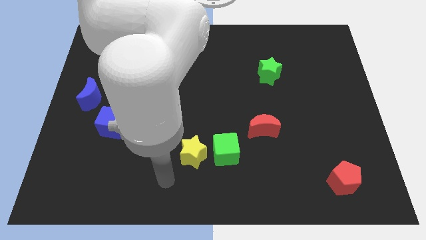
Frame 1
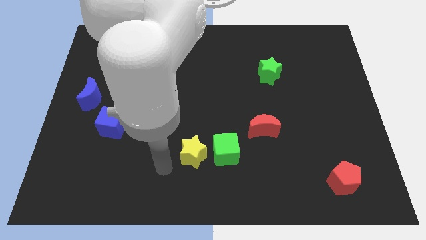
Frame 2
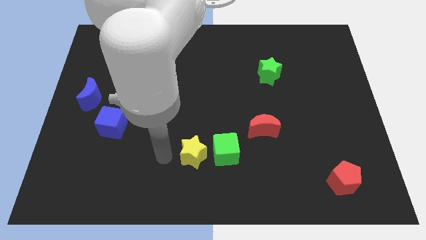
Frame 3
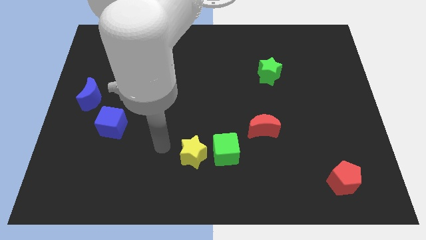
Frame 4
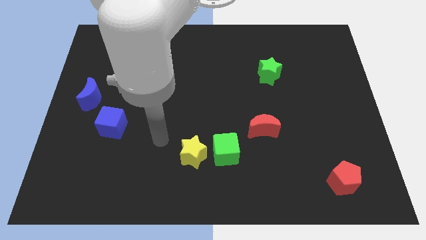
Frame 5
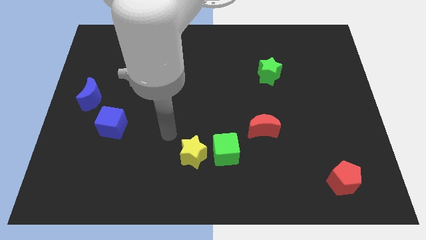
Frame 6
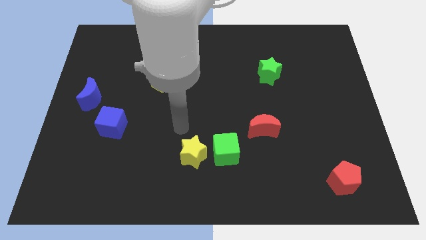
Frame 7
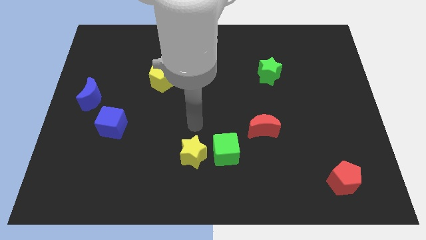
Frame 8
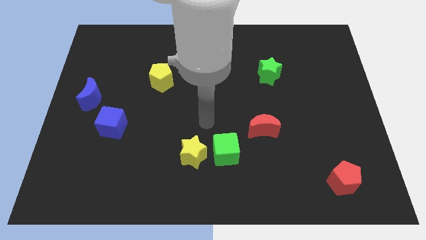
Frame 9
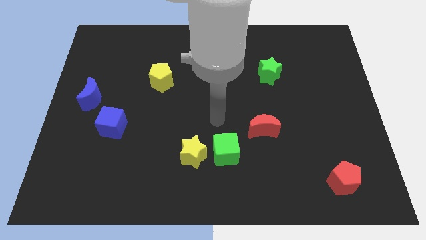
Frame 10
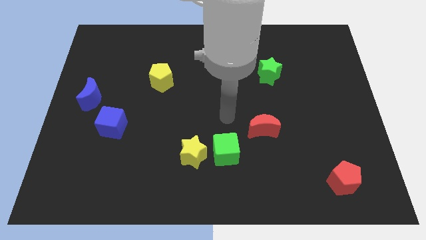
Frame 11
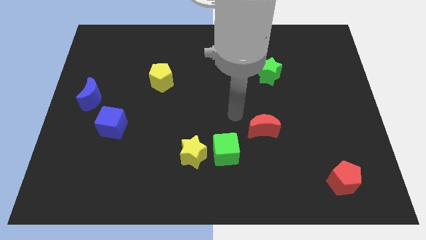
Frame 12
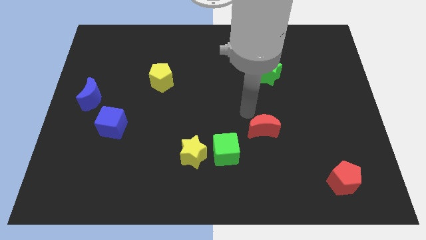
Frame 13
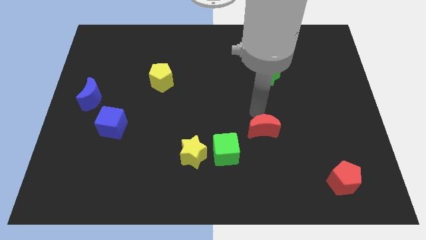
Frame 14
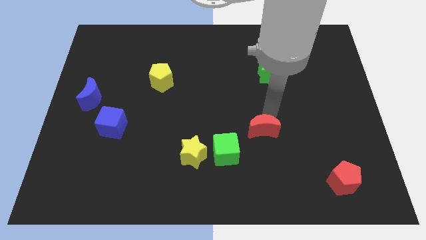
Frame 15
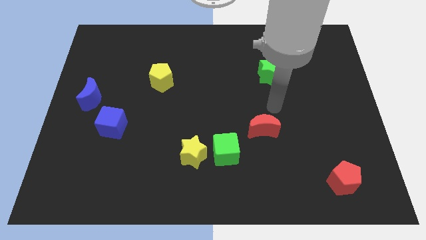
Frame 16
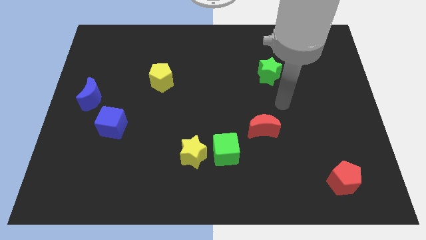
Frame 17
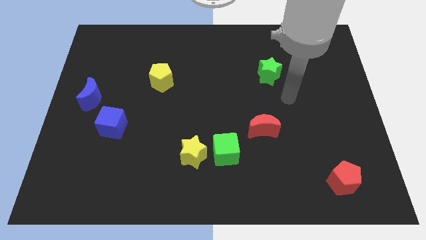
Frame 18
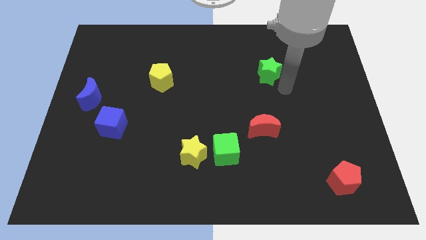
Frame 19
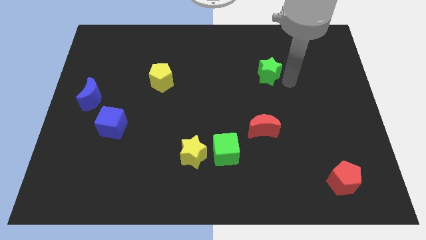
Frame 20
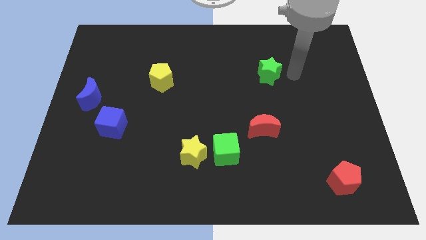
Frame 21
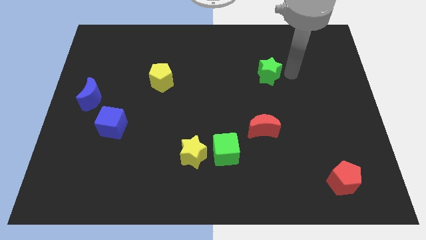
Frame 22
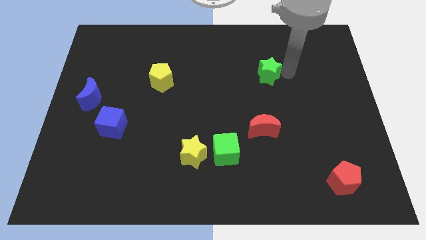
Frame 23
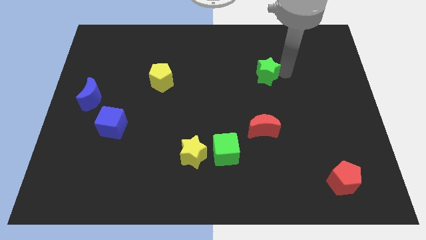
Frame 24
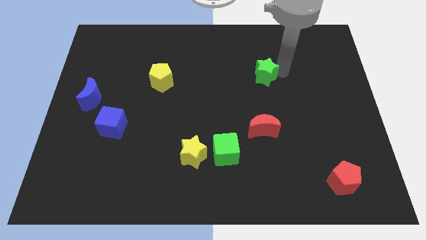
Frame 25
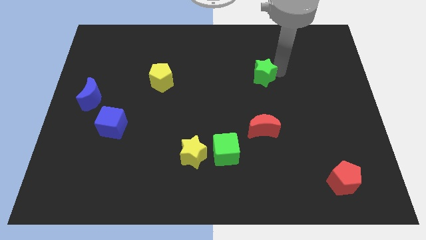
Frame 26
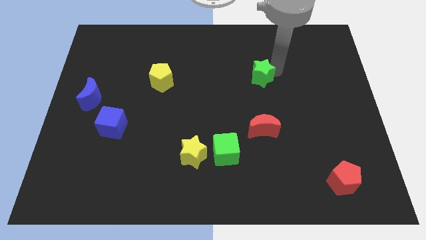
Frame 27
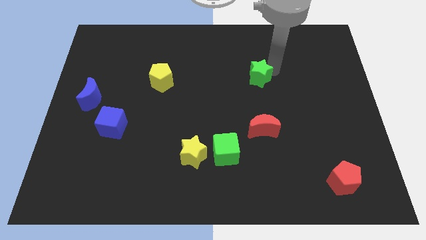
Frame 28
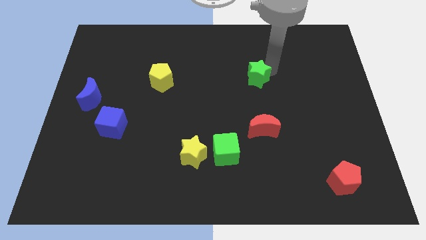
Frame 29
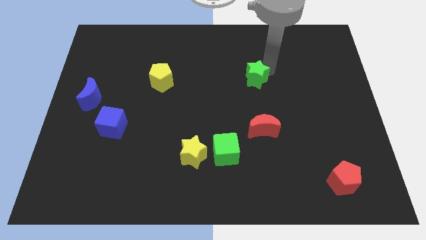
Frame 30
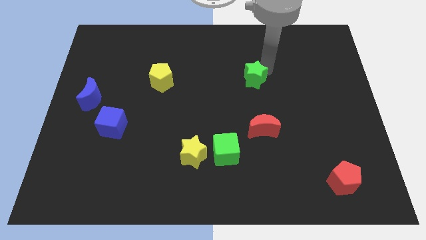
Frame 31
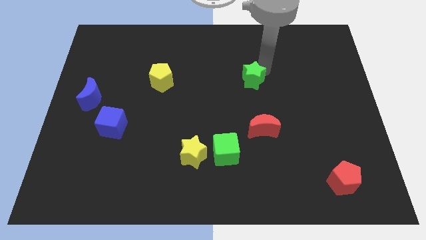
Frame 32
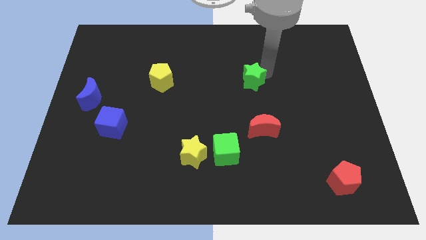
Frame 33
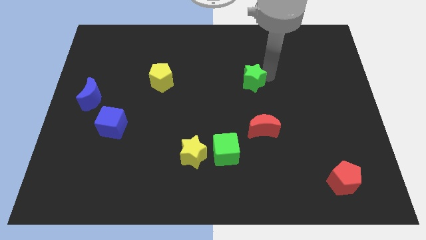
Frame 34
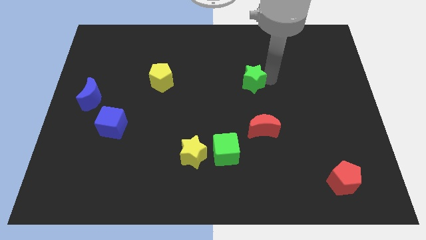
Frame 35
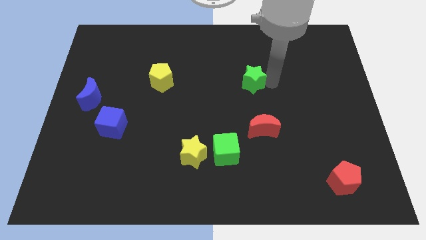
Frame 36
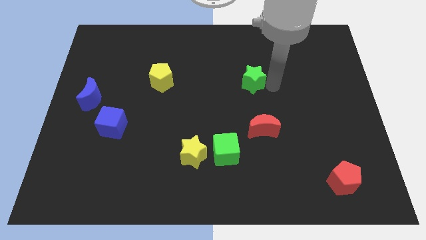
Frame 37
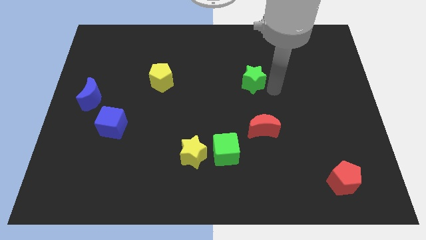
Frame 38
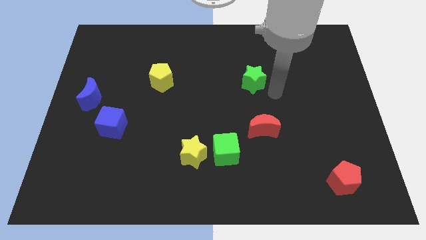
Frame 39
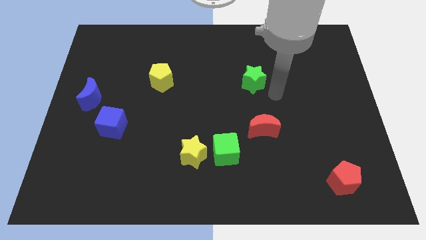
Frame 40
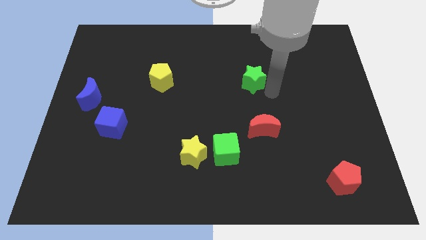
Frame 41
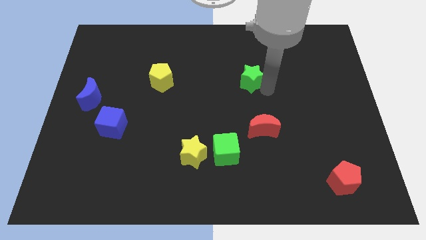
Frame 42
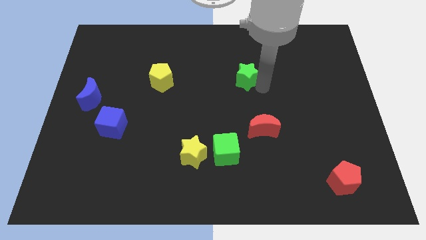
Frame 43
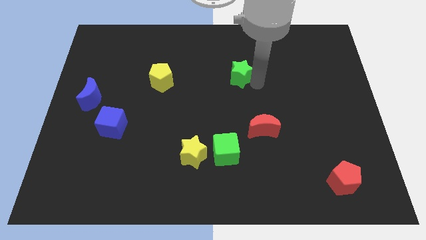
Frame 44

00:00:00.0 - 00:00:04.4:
slide the green star left slightly

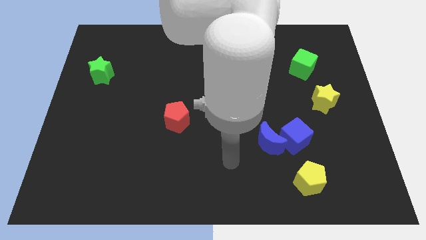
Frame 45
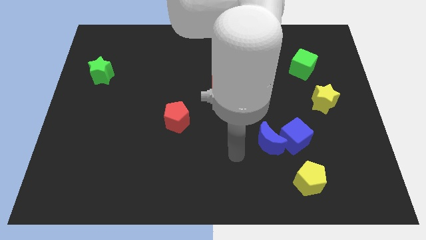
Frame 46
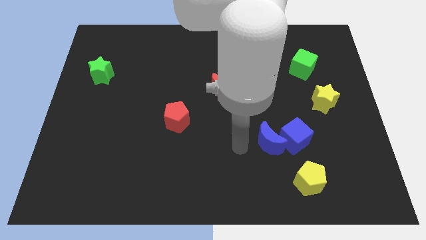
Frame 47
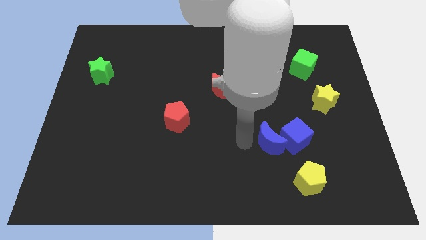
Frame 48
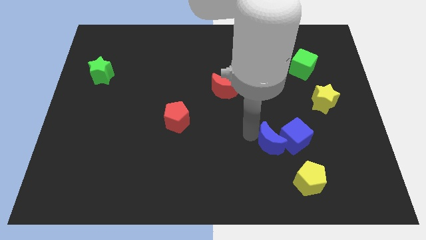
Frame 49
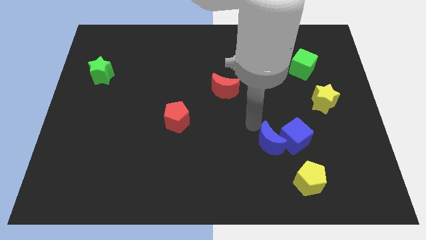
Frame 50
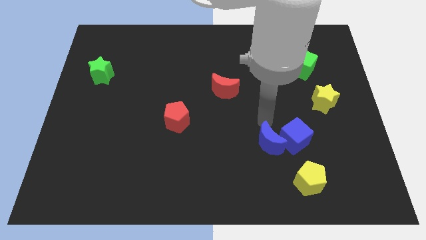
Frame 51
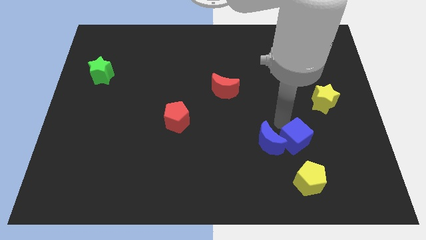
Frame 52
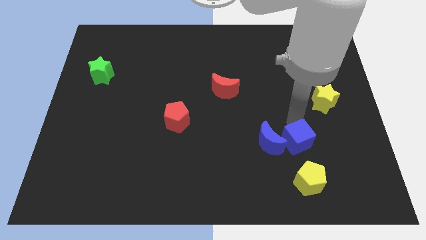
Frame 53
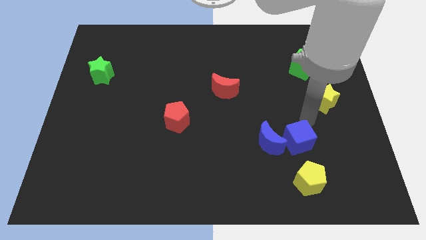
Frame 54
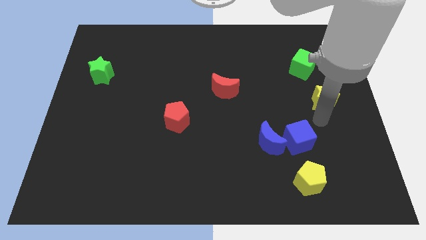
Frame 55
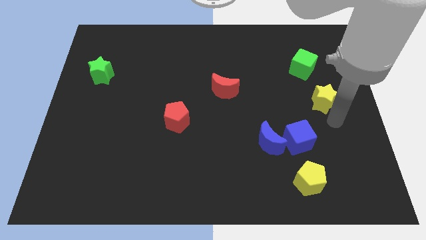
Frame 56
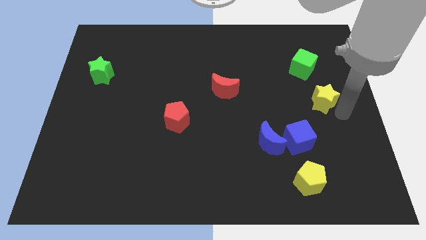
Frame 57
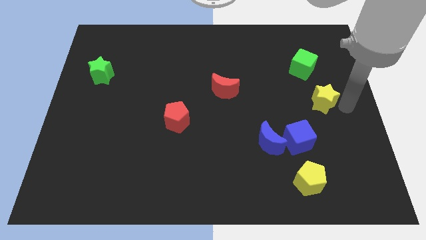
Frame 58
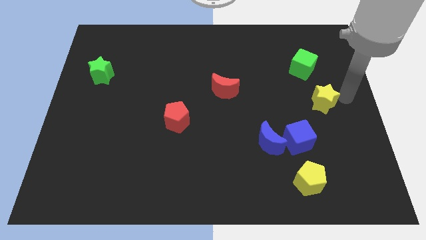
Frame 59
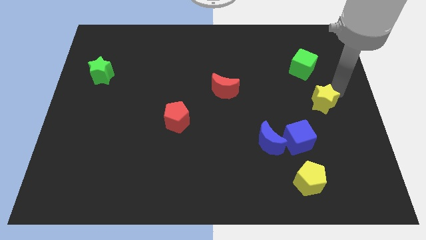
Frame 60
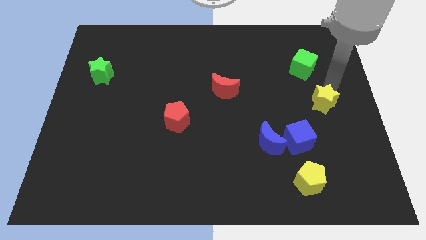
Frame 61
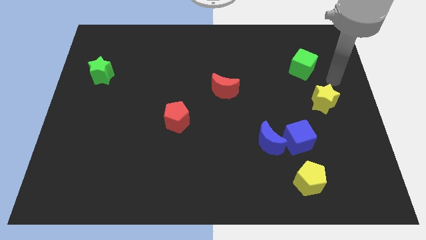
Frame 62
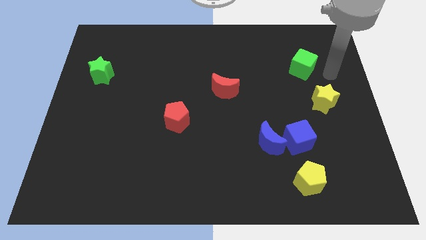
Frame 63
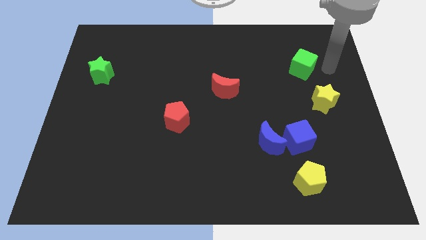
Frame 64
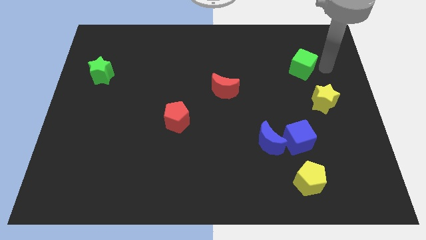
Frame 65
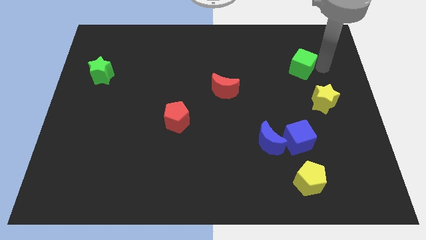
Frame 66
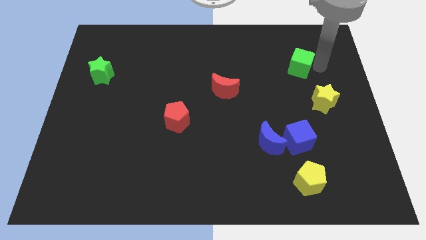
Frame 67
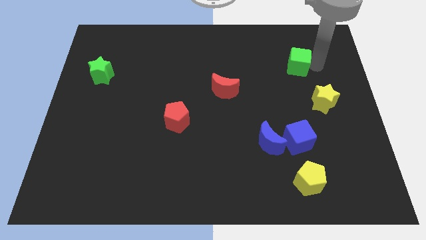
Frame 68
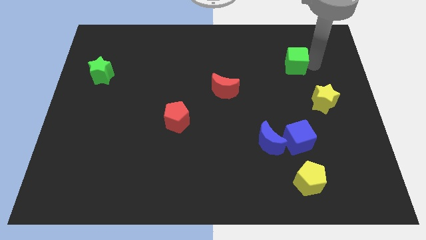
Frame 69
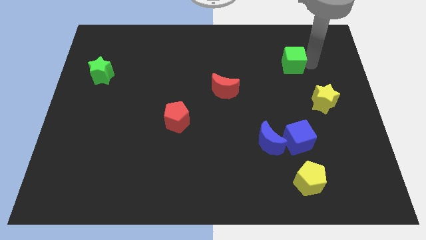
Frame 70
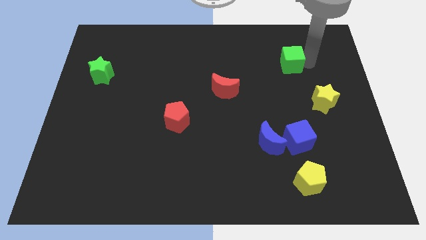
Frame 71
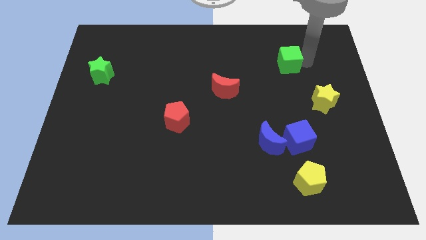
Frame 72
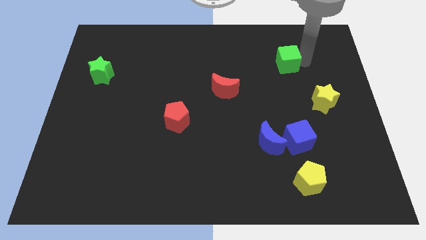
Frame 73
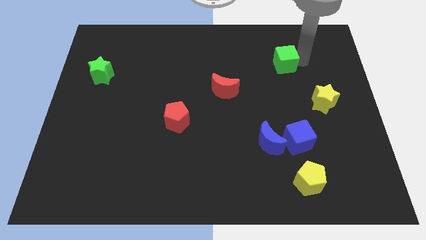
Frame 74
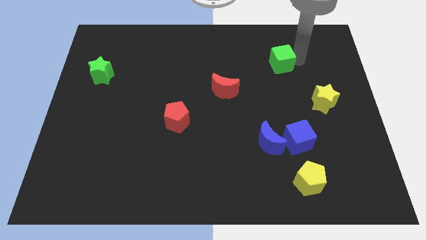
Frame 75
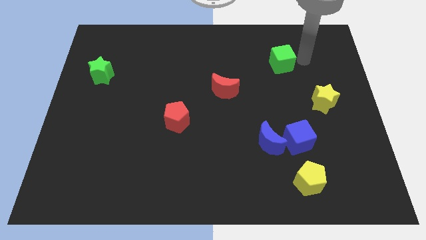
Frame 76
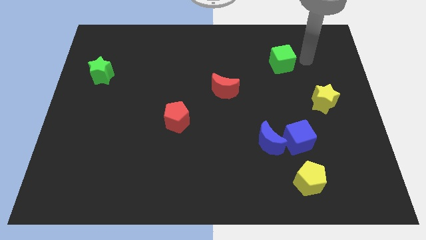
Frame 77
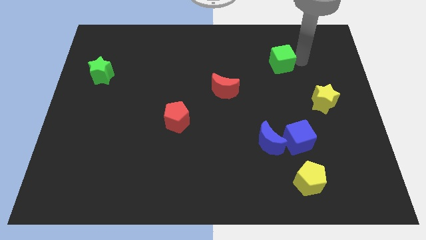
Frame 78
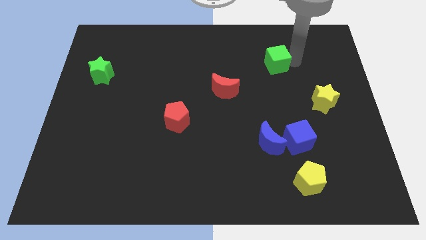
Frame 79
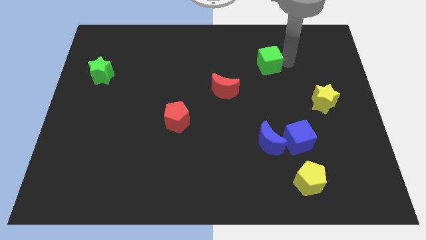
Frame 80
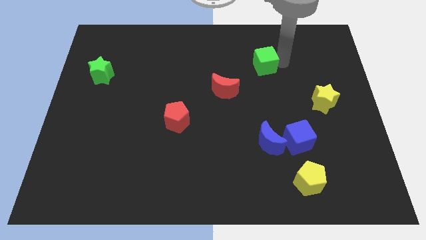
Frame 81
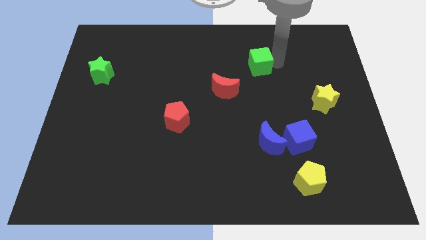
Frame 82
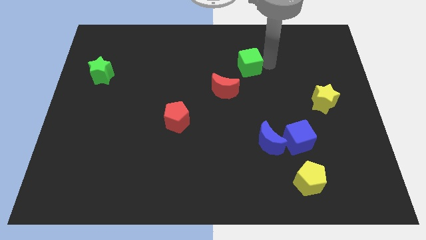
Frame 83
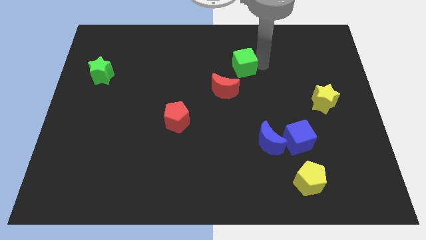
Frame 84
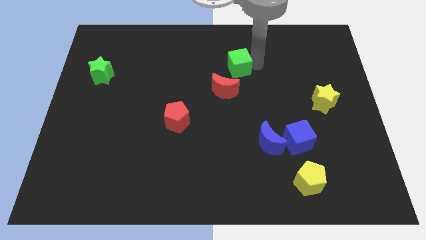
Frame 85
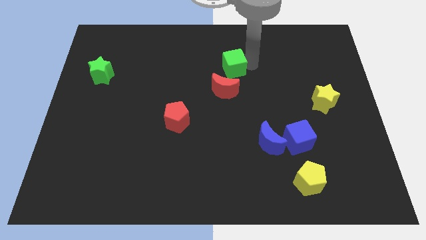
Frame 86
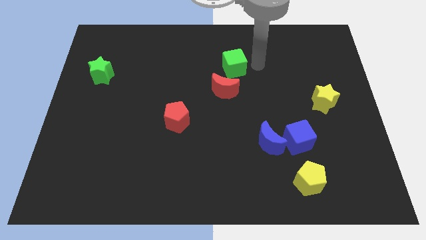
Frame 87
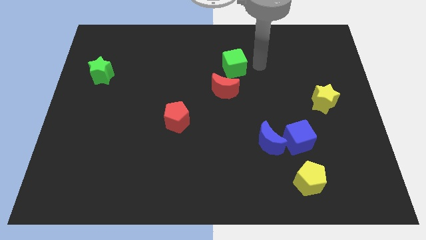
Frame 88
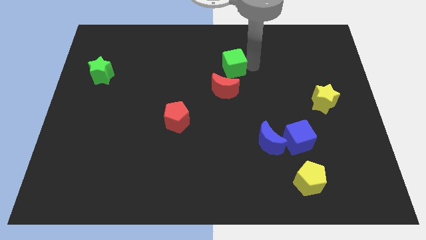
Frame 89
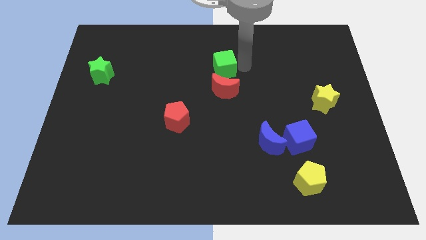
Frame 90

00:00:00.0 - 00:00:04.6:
slide the green cube left
